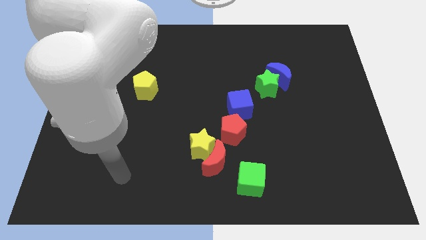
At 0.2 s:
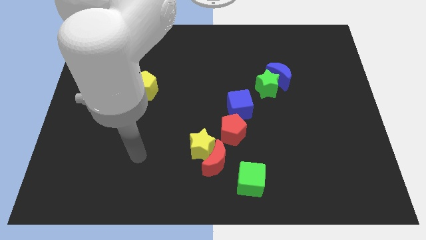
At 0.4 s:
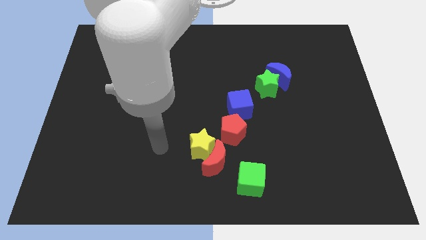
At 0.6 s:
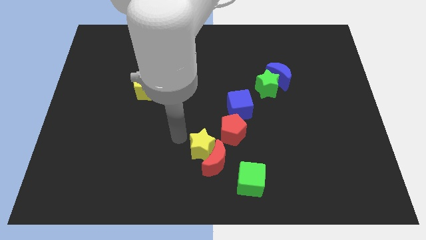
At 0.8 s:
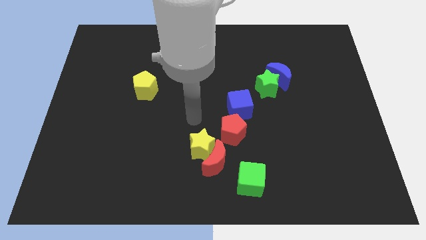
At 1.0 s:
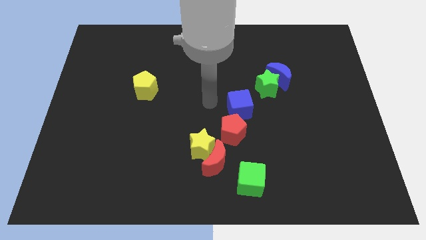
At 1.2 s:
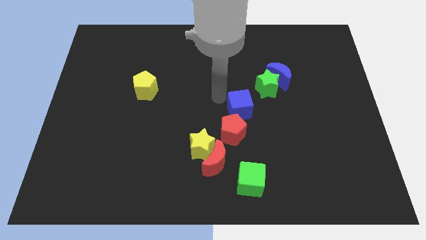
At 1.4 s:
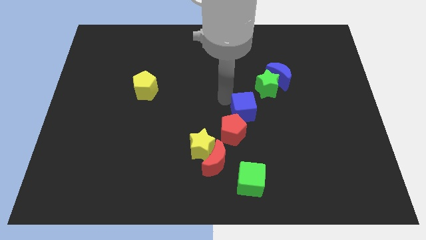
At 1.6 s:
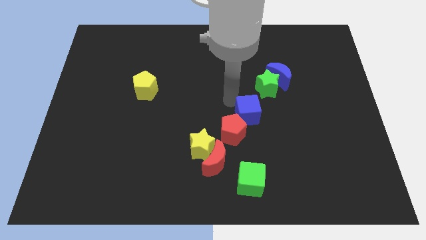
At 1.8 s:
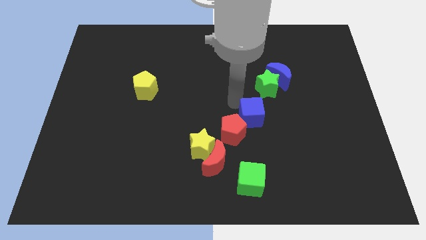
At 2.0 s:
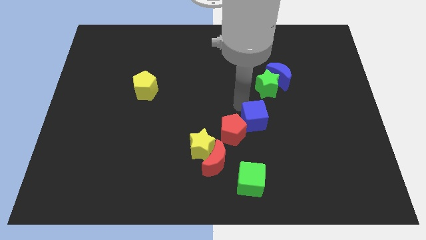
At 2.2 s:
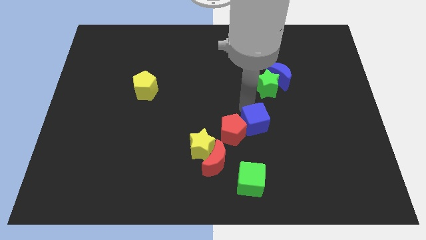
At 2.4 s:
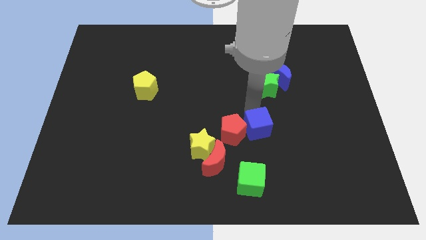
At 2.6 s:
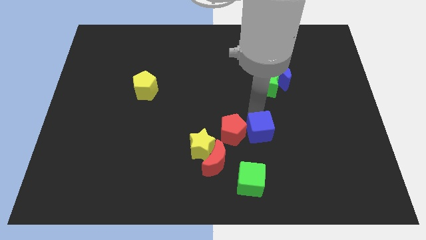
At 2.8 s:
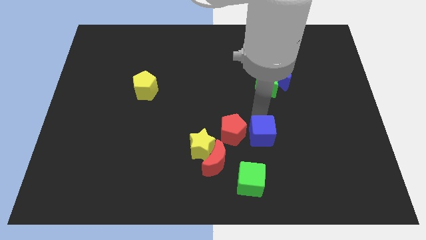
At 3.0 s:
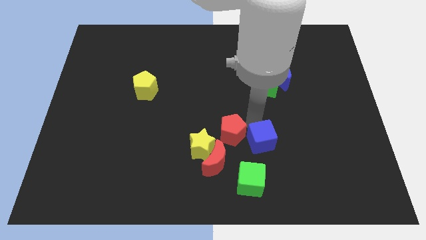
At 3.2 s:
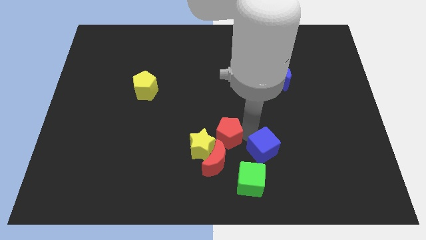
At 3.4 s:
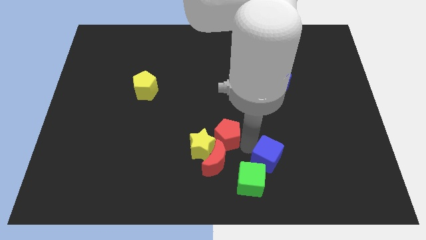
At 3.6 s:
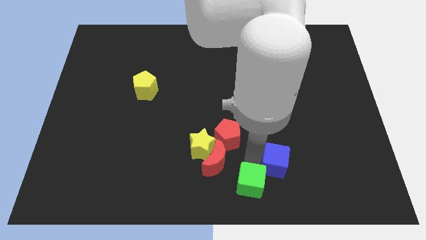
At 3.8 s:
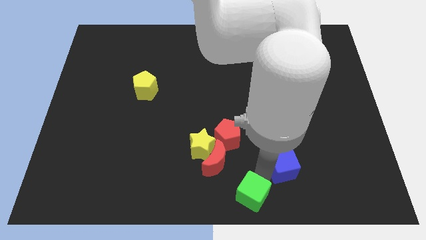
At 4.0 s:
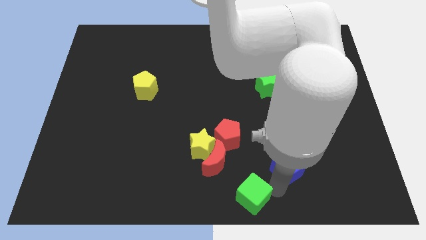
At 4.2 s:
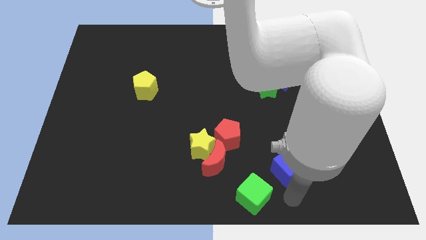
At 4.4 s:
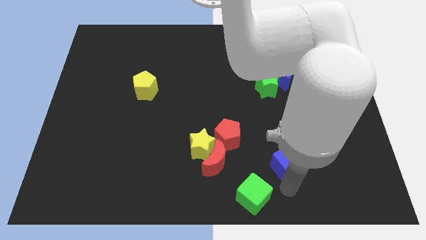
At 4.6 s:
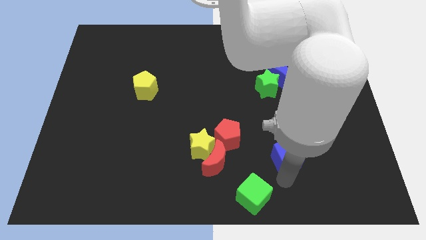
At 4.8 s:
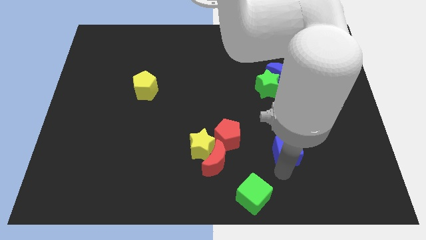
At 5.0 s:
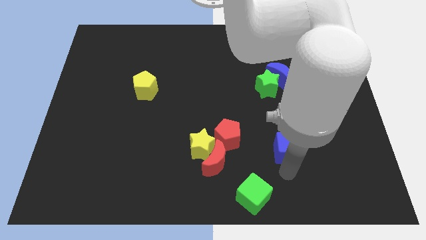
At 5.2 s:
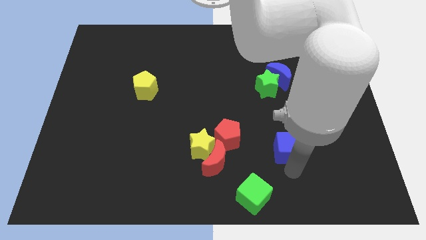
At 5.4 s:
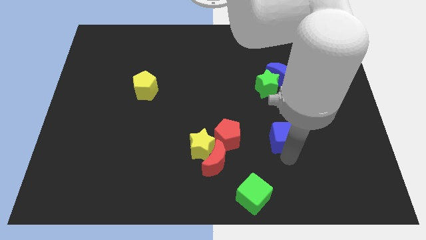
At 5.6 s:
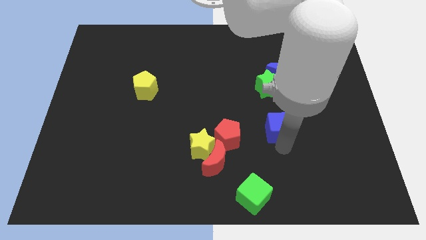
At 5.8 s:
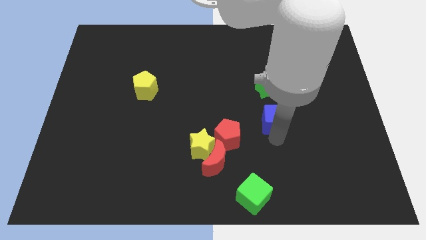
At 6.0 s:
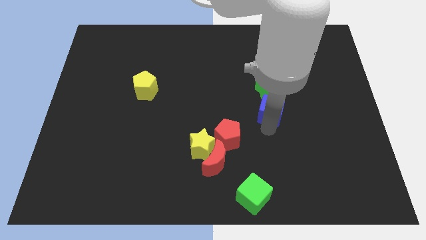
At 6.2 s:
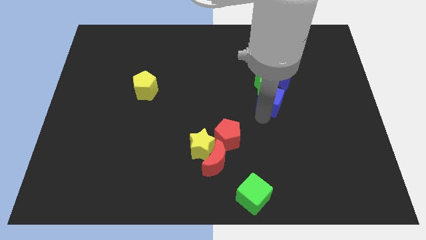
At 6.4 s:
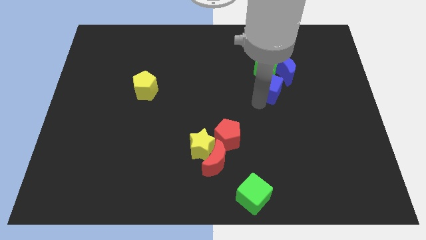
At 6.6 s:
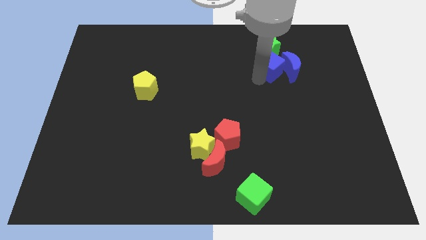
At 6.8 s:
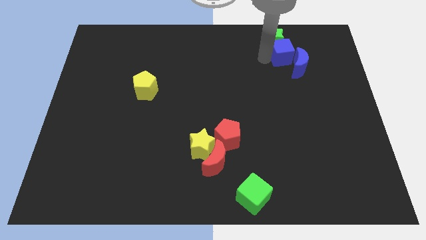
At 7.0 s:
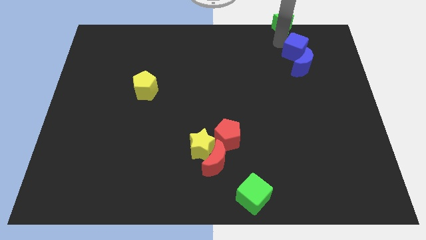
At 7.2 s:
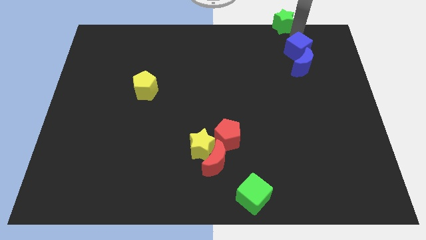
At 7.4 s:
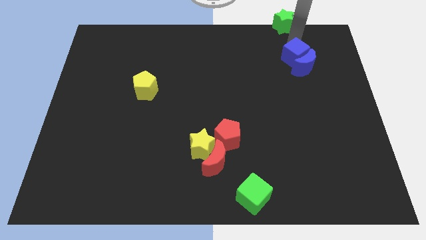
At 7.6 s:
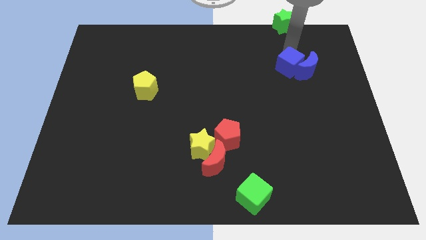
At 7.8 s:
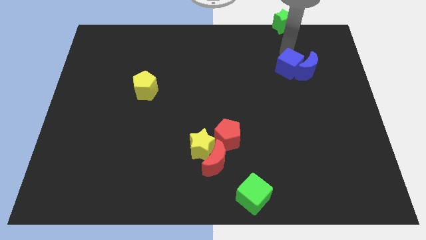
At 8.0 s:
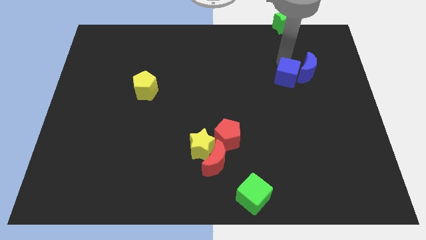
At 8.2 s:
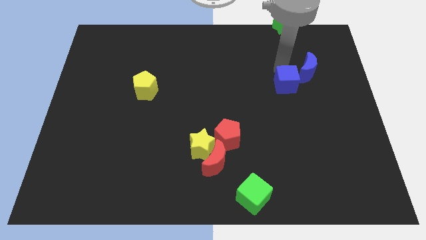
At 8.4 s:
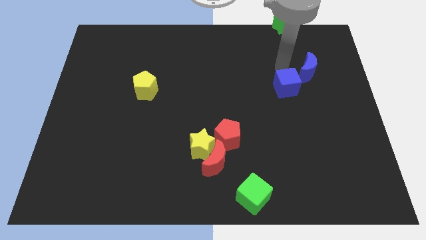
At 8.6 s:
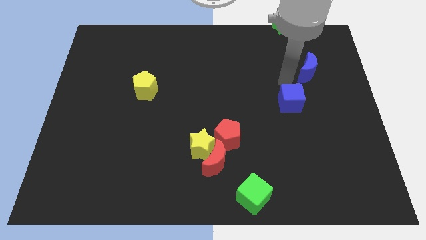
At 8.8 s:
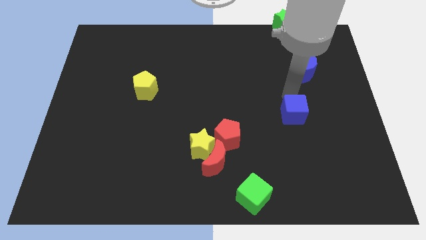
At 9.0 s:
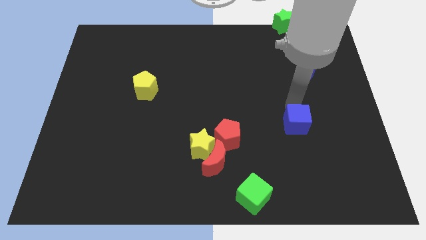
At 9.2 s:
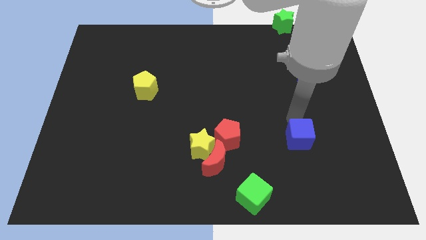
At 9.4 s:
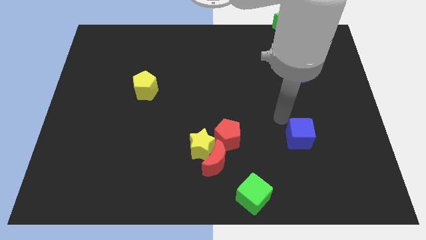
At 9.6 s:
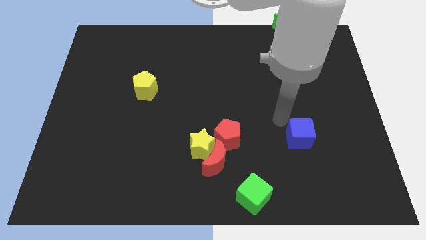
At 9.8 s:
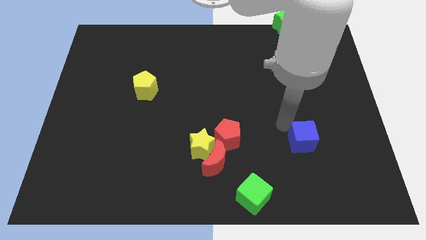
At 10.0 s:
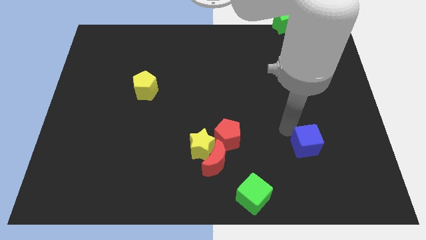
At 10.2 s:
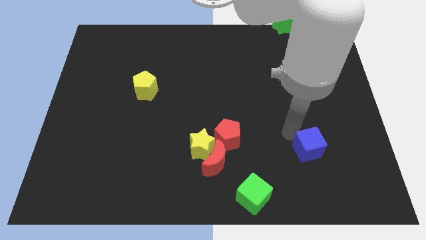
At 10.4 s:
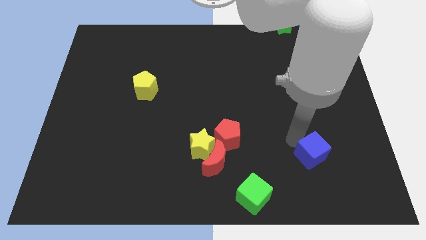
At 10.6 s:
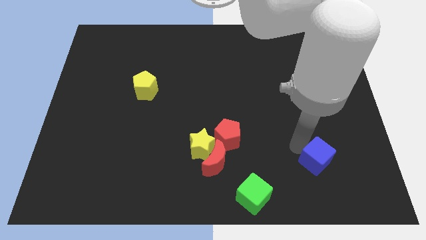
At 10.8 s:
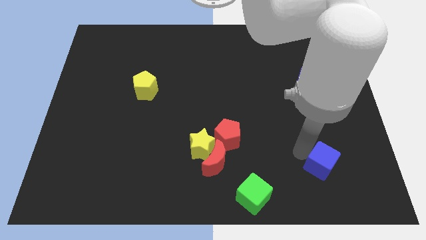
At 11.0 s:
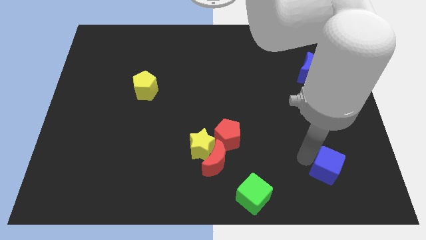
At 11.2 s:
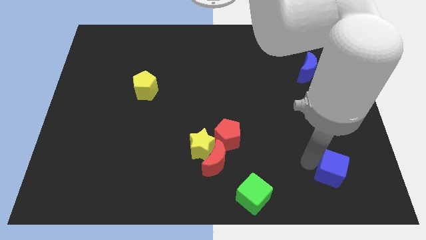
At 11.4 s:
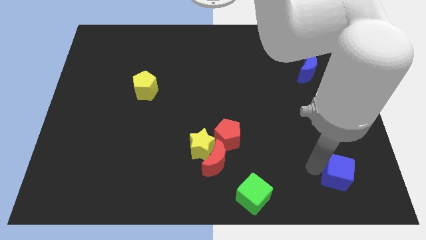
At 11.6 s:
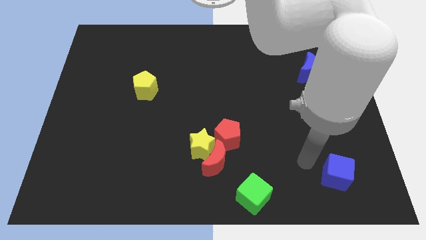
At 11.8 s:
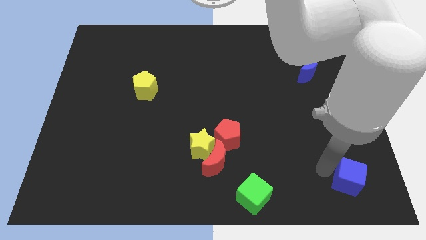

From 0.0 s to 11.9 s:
move the blue cube to the bottom right corner
